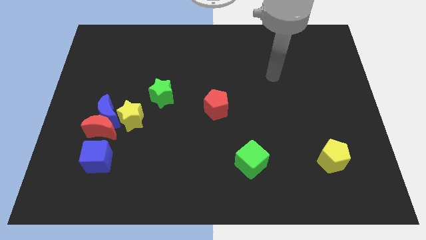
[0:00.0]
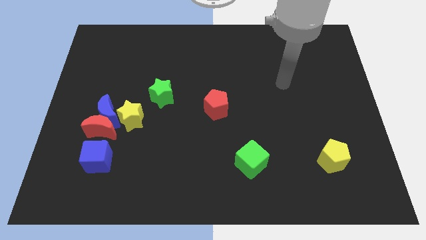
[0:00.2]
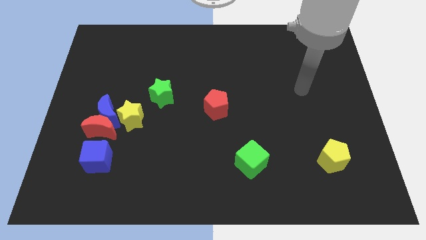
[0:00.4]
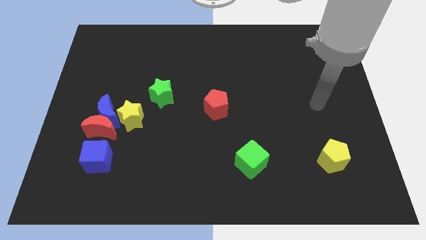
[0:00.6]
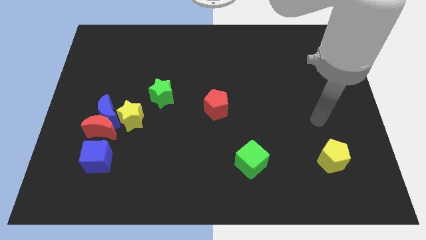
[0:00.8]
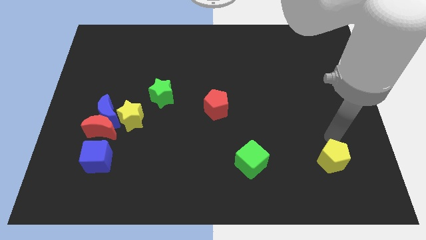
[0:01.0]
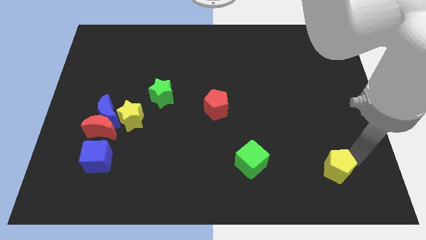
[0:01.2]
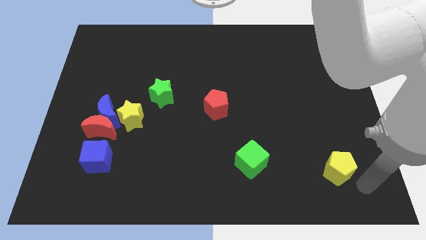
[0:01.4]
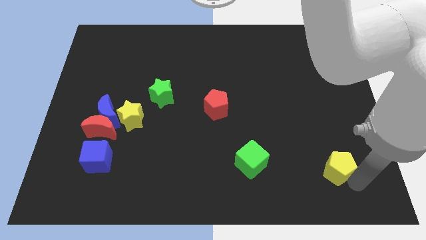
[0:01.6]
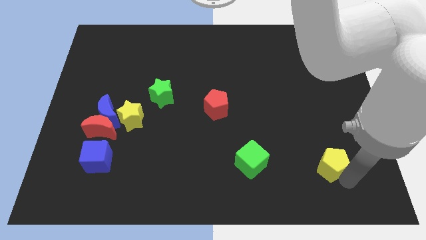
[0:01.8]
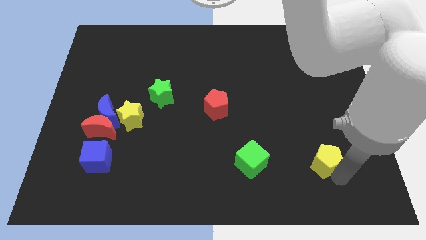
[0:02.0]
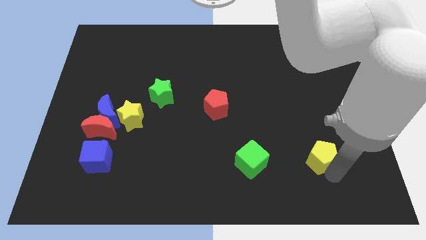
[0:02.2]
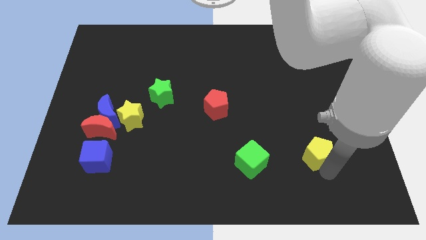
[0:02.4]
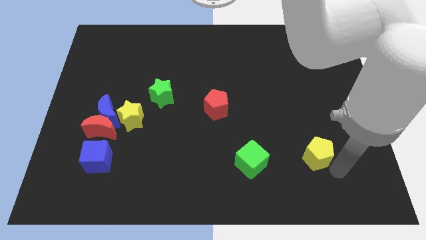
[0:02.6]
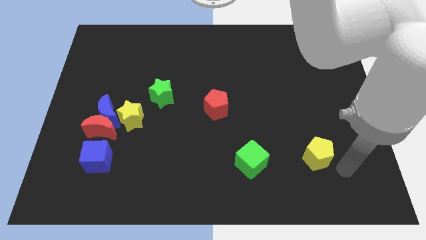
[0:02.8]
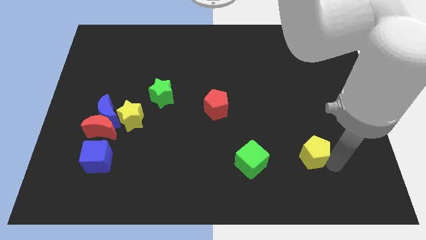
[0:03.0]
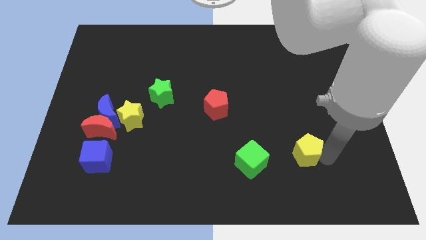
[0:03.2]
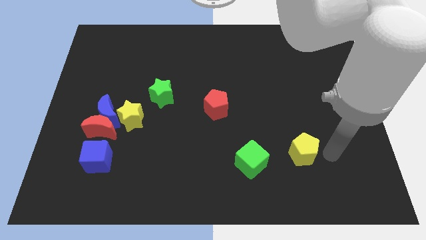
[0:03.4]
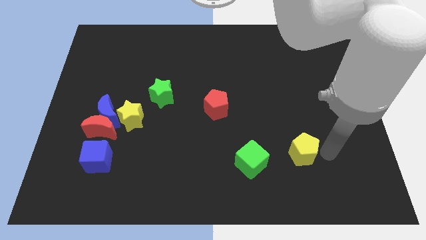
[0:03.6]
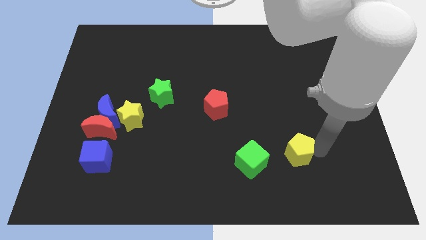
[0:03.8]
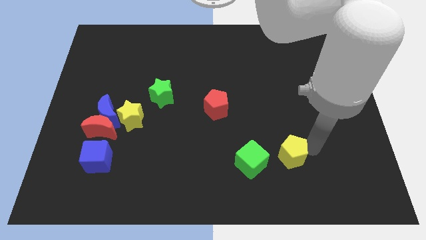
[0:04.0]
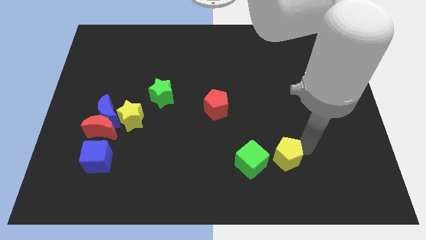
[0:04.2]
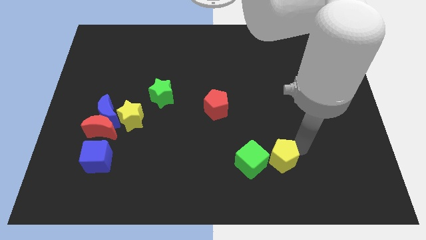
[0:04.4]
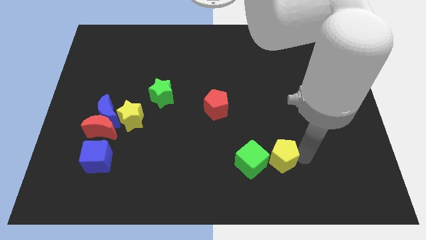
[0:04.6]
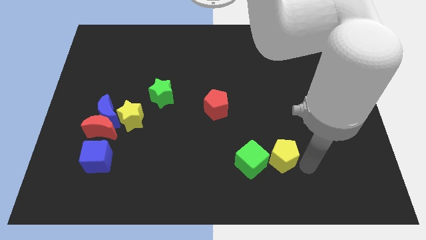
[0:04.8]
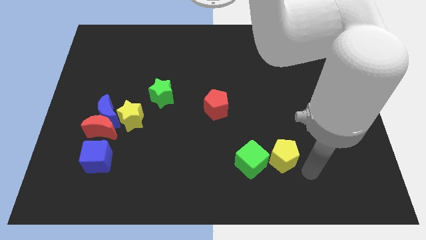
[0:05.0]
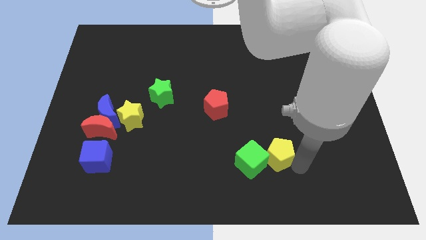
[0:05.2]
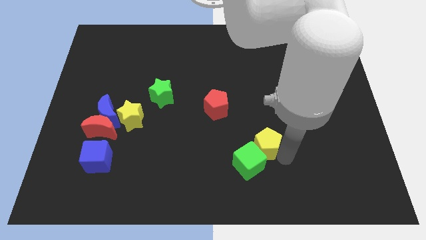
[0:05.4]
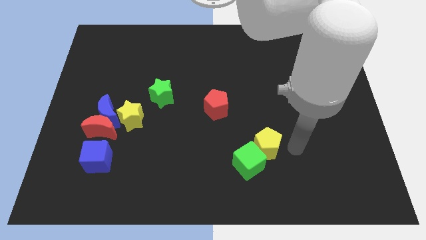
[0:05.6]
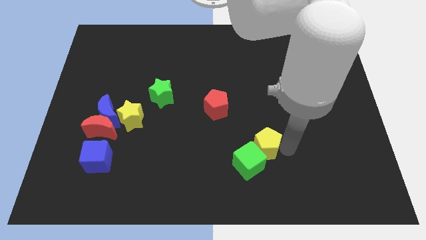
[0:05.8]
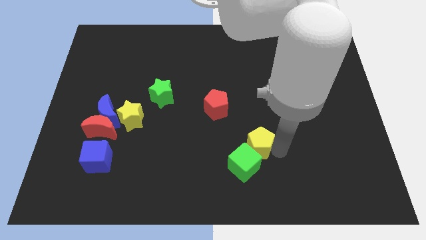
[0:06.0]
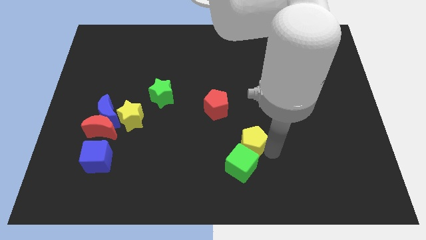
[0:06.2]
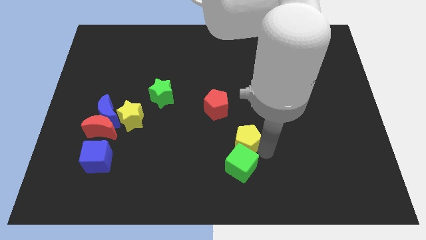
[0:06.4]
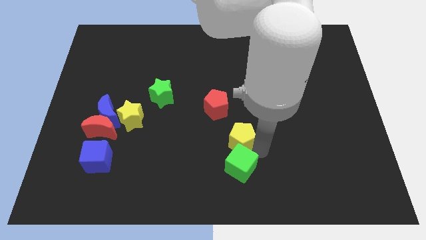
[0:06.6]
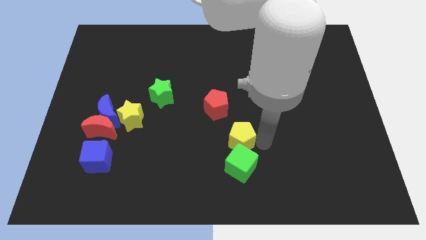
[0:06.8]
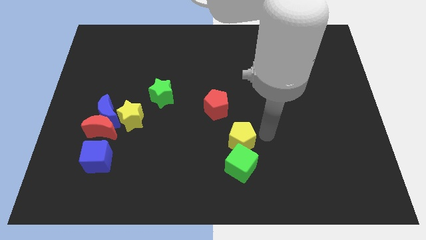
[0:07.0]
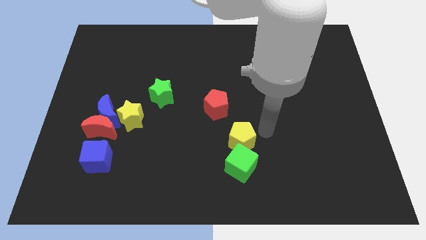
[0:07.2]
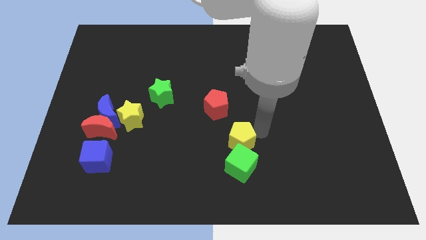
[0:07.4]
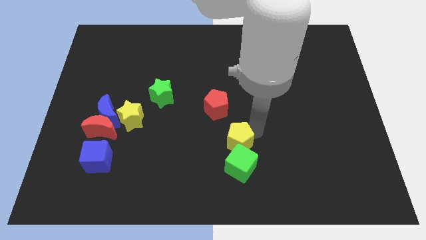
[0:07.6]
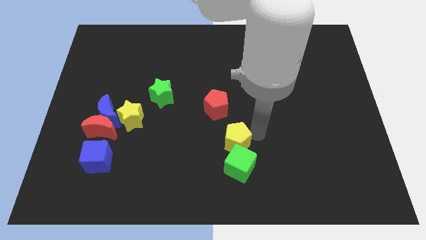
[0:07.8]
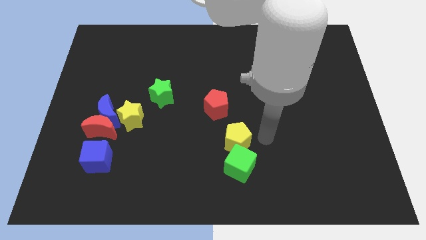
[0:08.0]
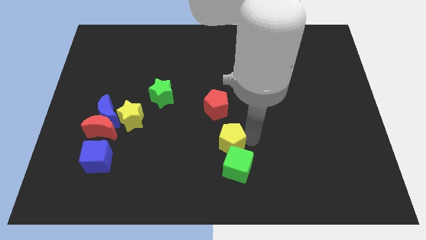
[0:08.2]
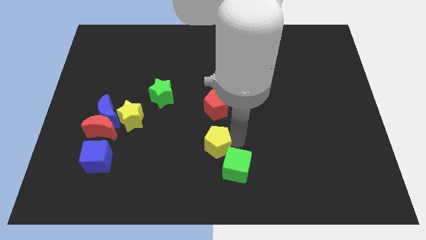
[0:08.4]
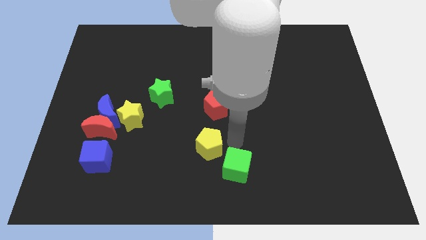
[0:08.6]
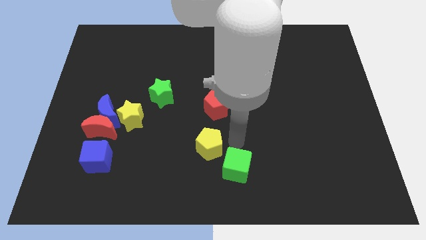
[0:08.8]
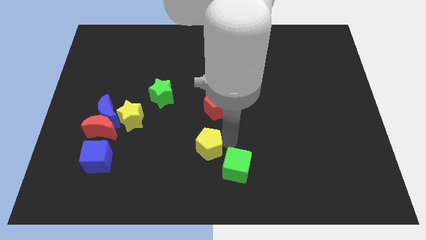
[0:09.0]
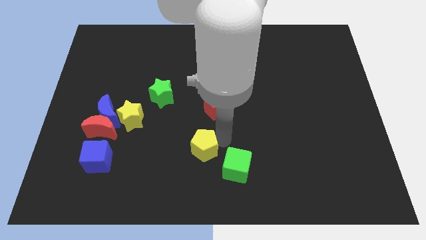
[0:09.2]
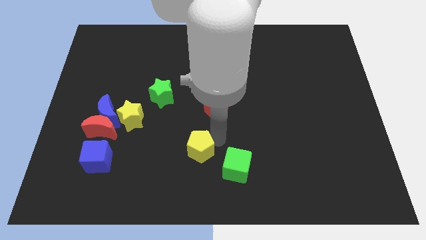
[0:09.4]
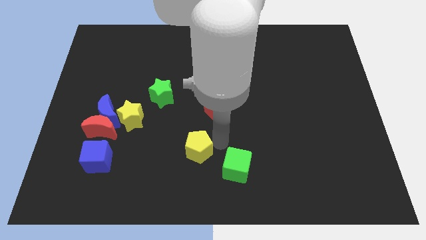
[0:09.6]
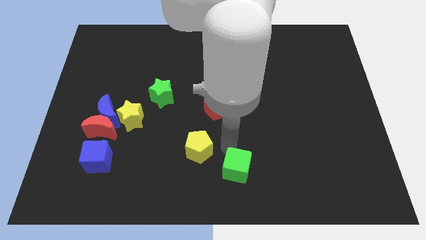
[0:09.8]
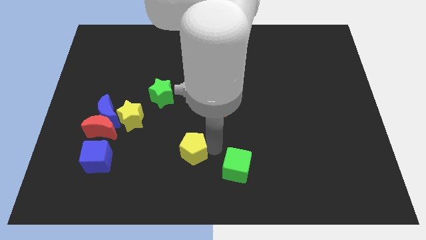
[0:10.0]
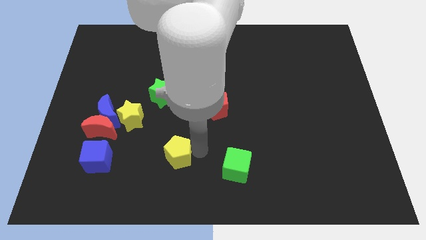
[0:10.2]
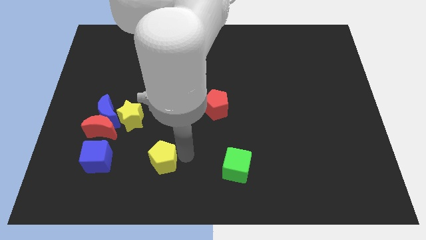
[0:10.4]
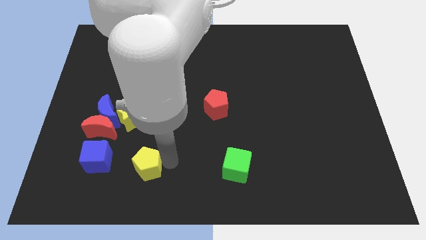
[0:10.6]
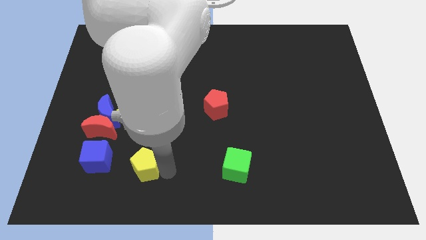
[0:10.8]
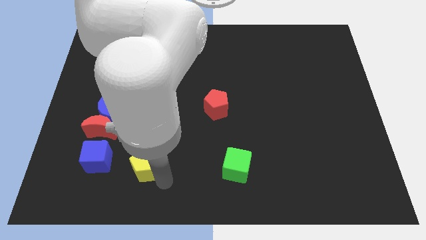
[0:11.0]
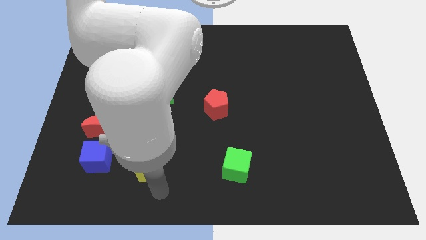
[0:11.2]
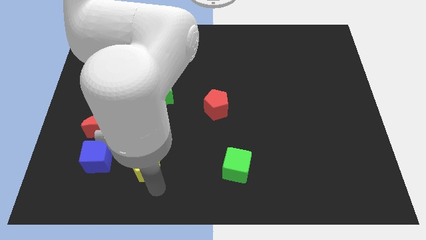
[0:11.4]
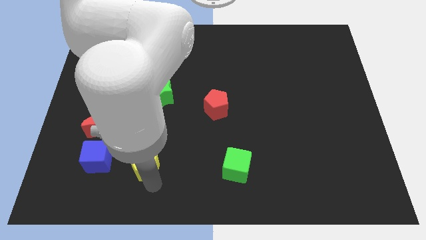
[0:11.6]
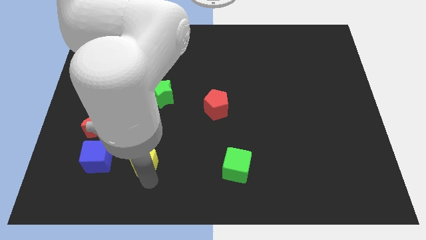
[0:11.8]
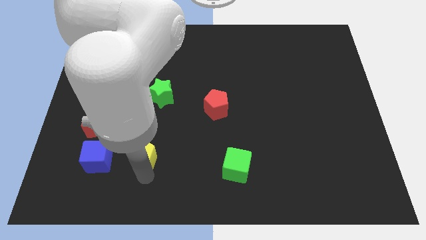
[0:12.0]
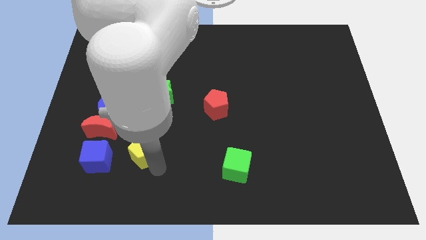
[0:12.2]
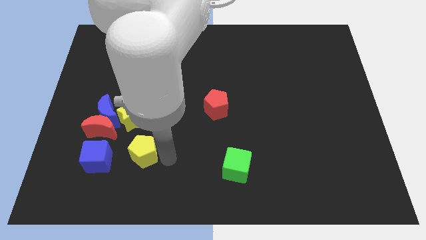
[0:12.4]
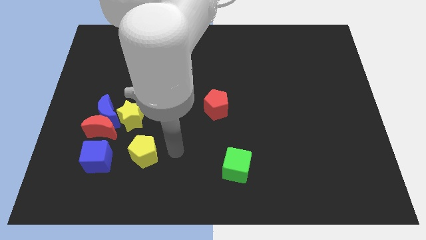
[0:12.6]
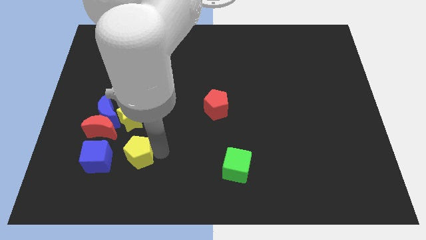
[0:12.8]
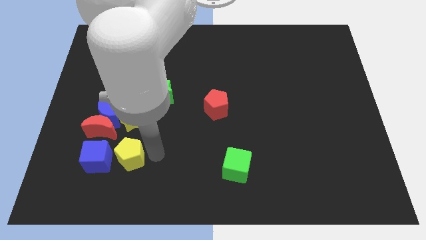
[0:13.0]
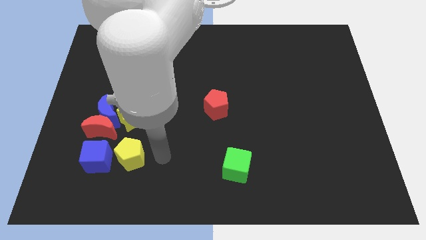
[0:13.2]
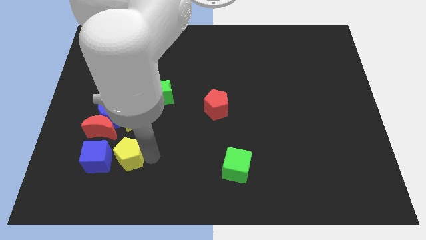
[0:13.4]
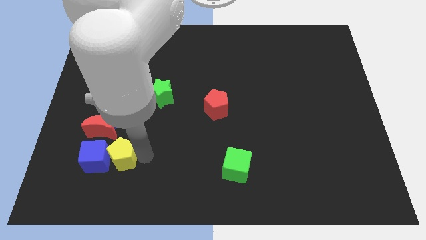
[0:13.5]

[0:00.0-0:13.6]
push the yellow pentagon to the blue cube

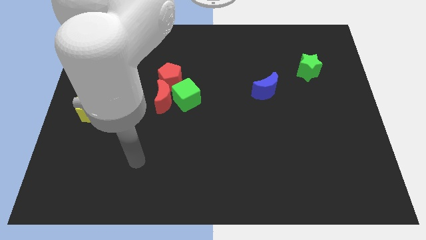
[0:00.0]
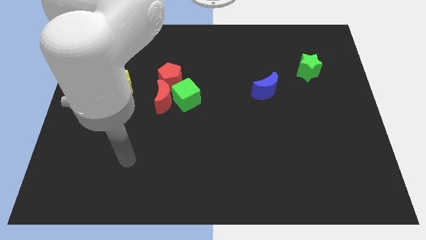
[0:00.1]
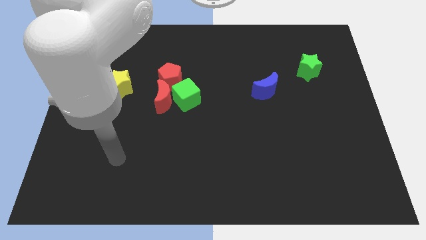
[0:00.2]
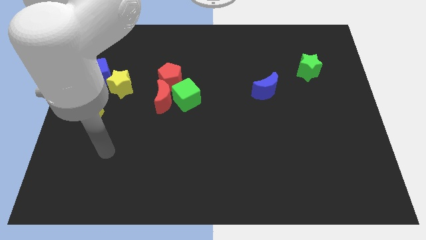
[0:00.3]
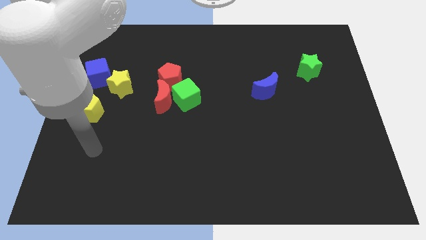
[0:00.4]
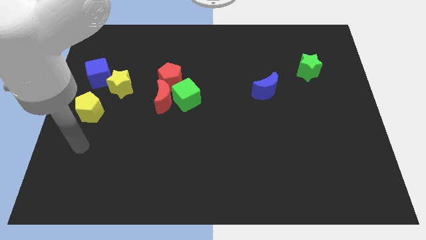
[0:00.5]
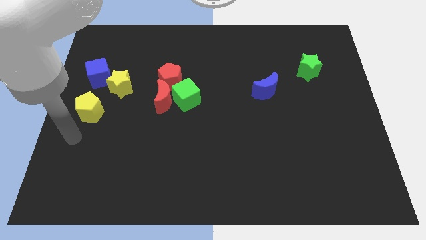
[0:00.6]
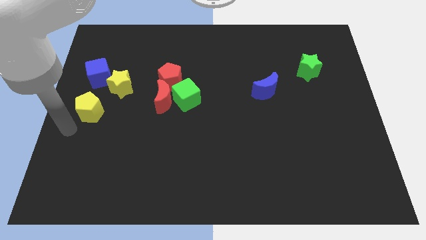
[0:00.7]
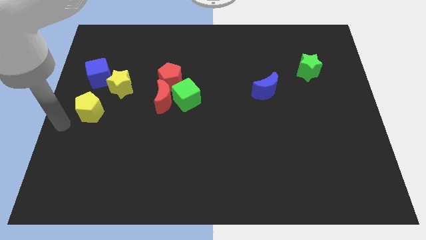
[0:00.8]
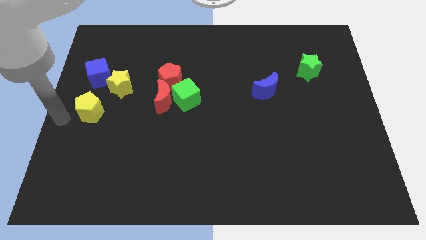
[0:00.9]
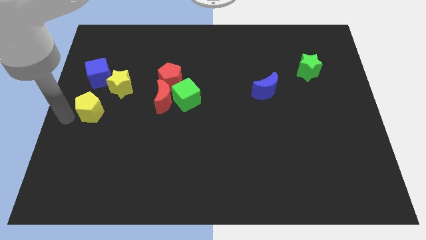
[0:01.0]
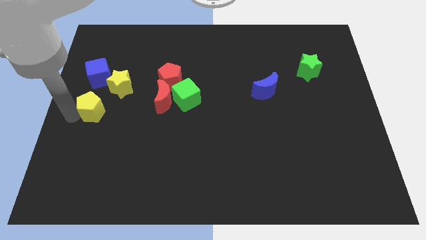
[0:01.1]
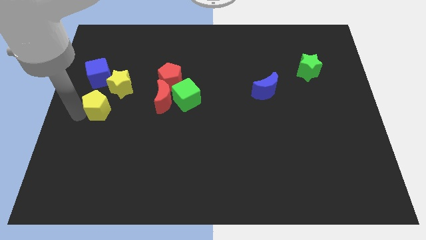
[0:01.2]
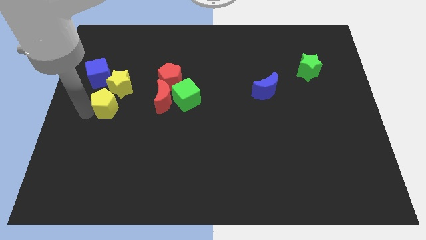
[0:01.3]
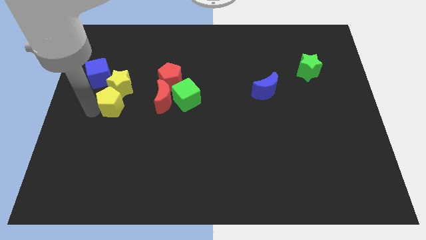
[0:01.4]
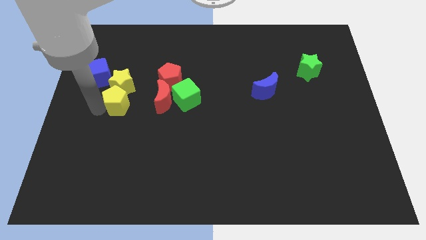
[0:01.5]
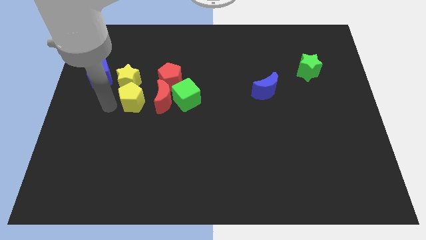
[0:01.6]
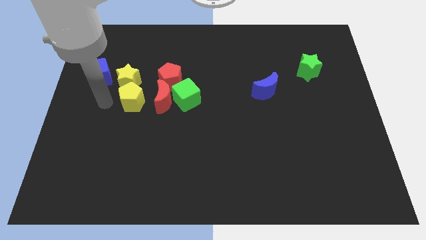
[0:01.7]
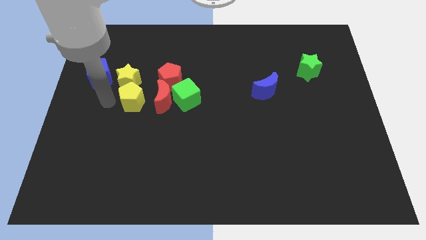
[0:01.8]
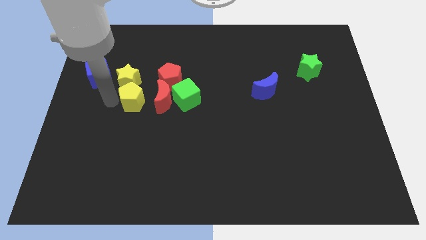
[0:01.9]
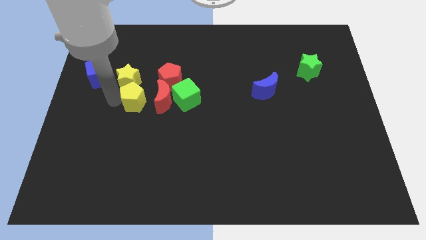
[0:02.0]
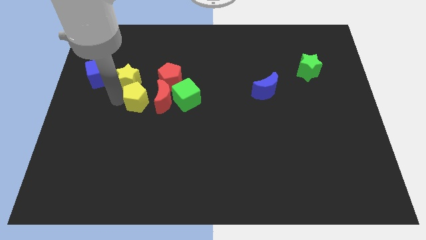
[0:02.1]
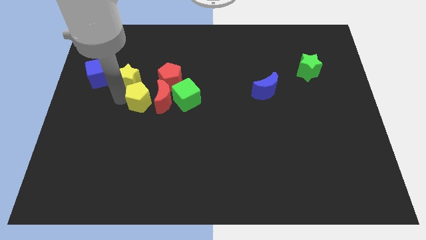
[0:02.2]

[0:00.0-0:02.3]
push the yellow pentagon to the red moon
